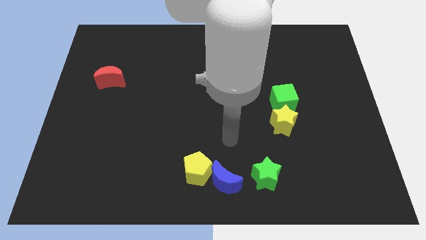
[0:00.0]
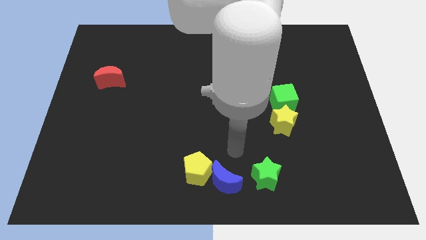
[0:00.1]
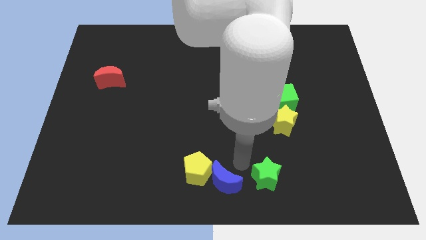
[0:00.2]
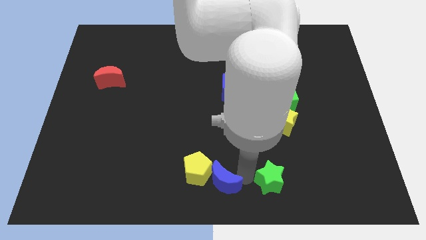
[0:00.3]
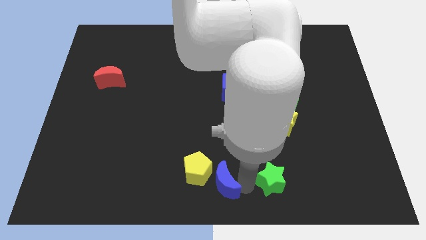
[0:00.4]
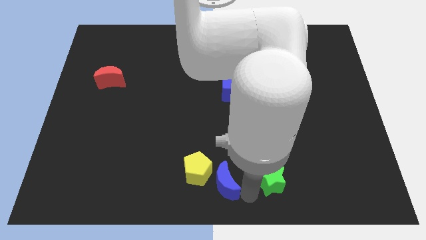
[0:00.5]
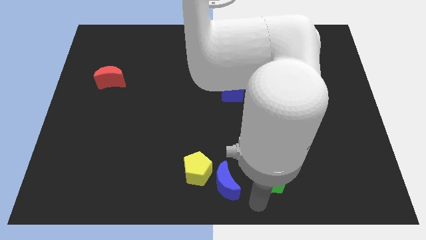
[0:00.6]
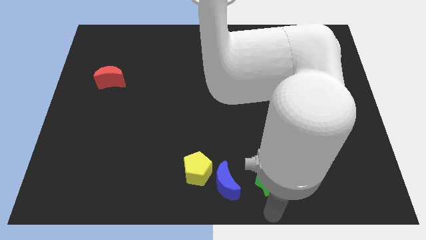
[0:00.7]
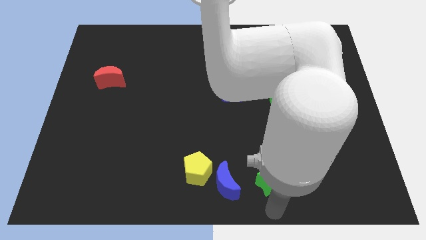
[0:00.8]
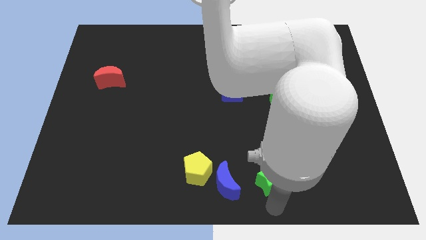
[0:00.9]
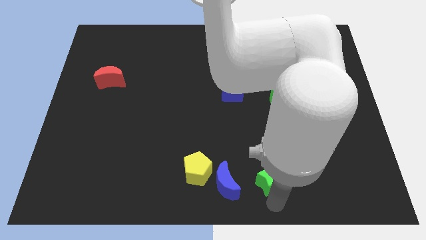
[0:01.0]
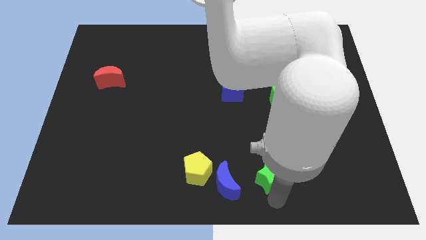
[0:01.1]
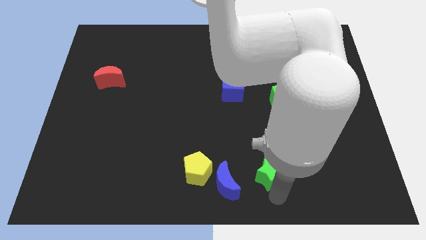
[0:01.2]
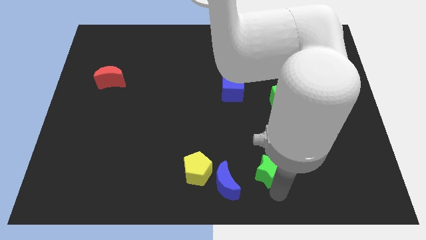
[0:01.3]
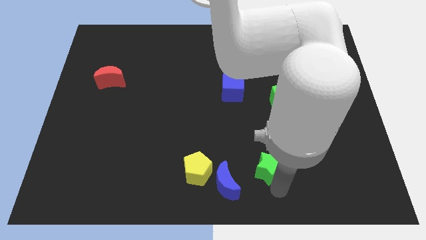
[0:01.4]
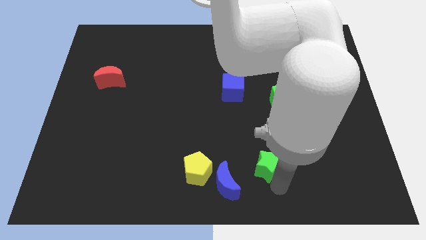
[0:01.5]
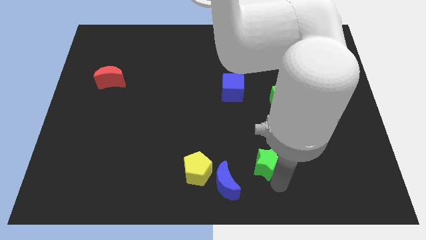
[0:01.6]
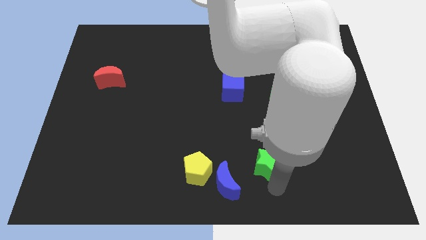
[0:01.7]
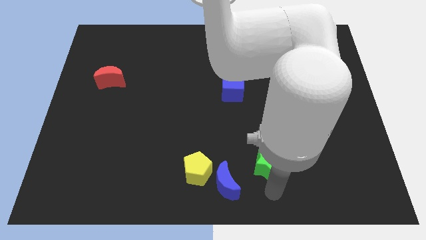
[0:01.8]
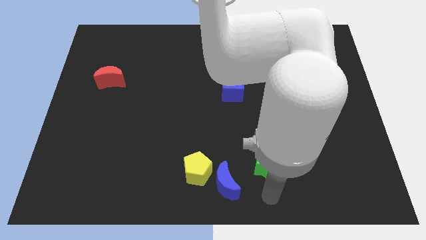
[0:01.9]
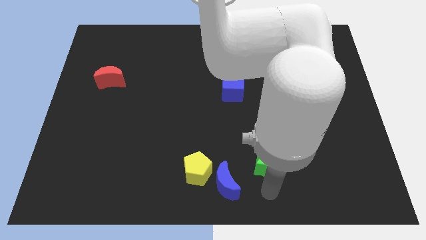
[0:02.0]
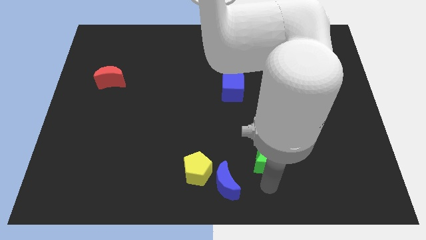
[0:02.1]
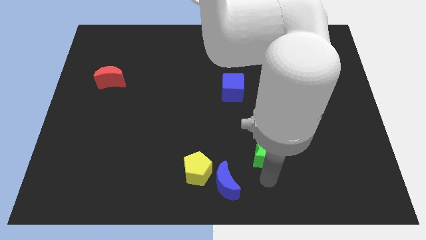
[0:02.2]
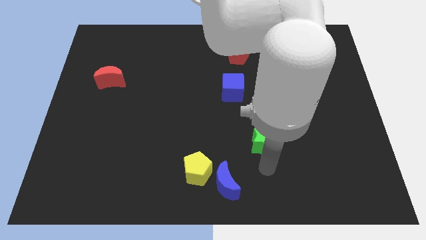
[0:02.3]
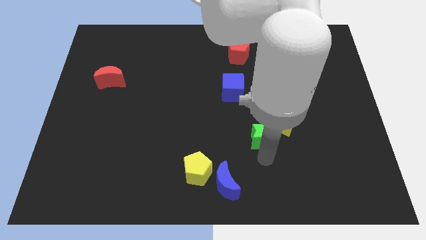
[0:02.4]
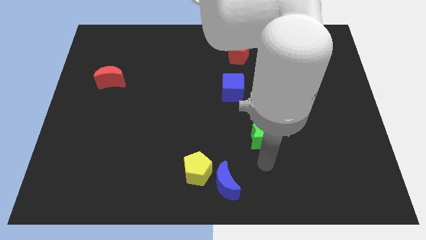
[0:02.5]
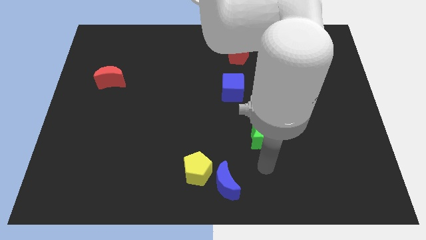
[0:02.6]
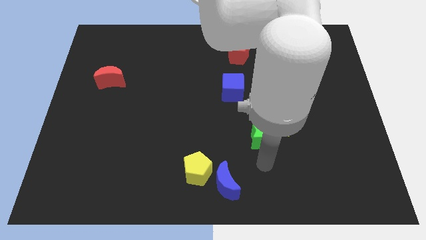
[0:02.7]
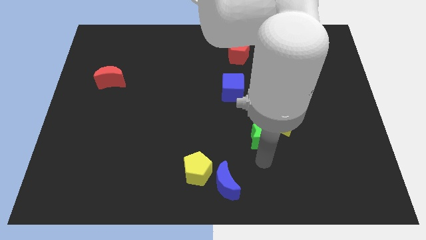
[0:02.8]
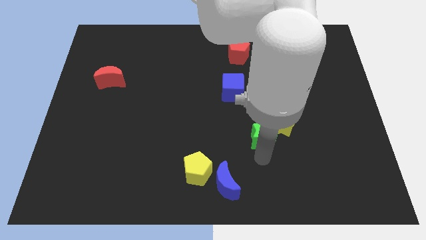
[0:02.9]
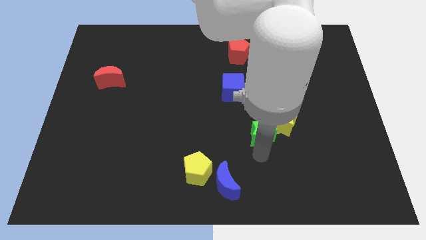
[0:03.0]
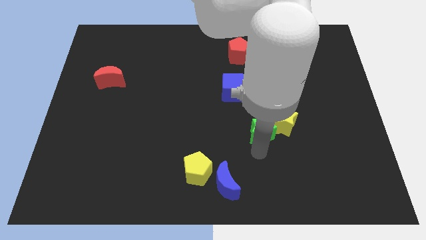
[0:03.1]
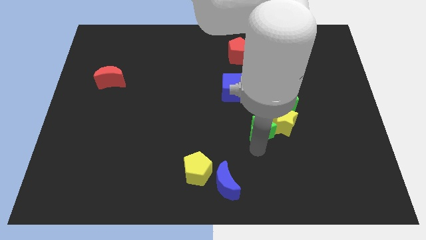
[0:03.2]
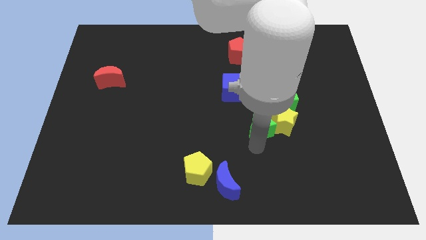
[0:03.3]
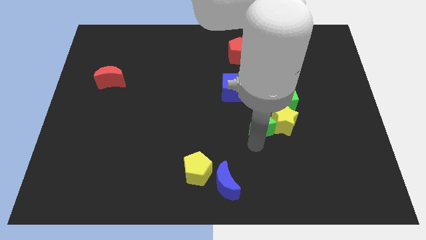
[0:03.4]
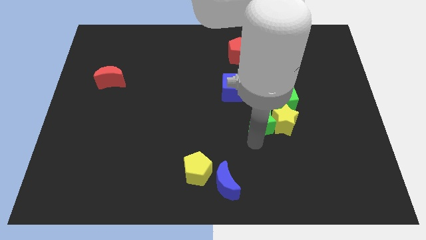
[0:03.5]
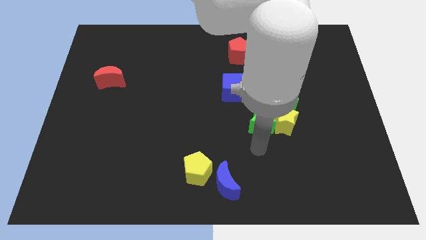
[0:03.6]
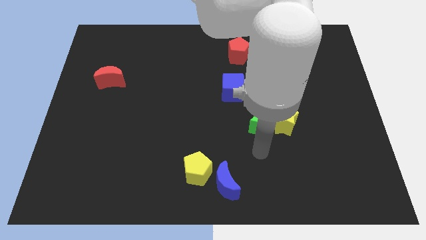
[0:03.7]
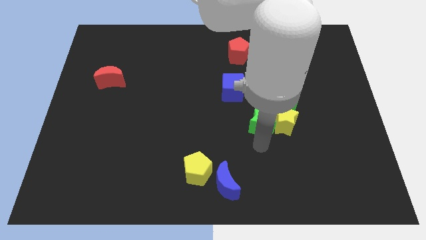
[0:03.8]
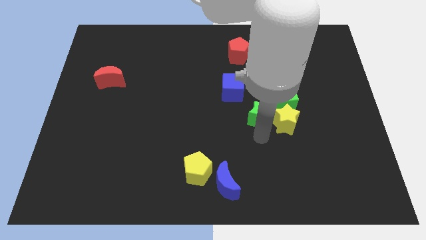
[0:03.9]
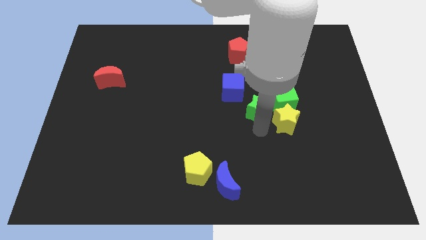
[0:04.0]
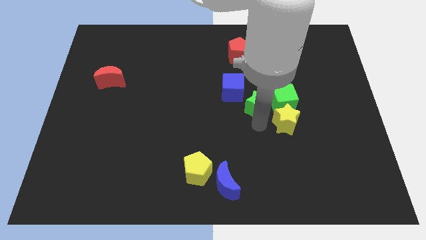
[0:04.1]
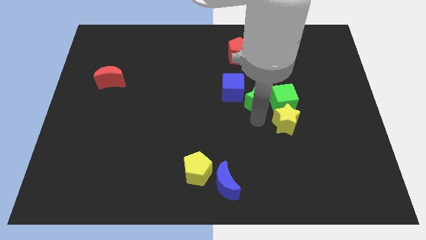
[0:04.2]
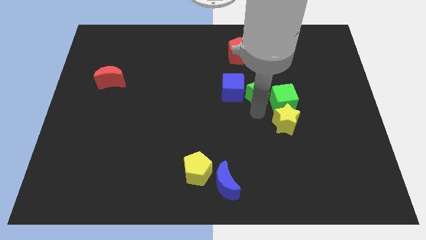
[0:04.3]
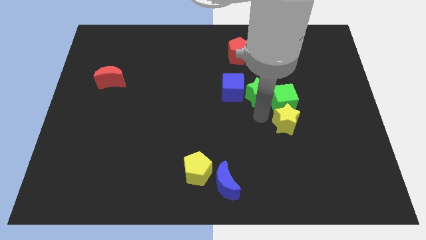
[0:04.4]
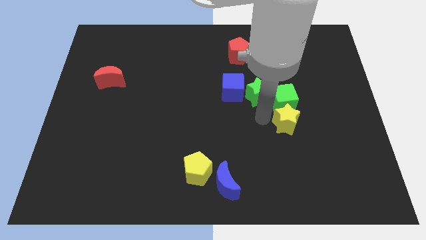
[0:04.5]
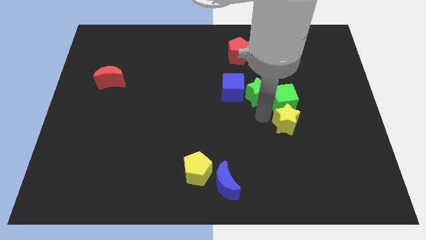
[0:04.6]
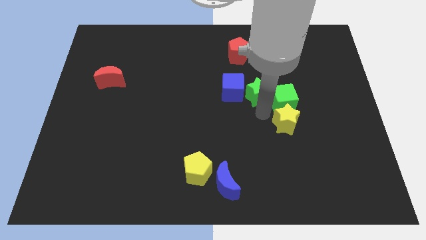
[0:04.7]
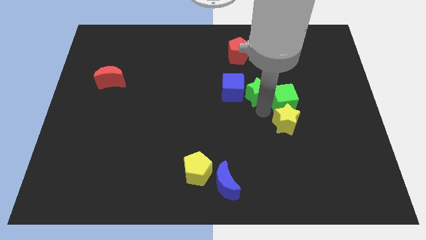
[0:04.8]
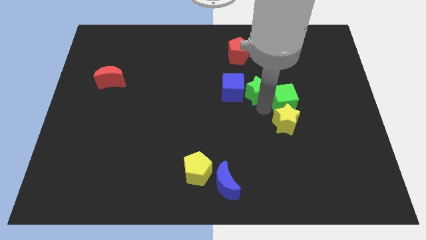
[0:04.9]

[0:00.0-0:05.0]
move the green star diagonally up and to the right of the blue cube

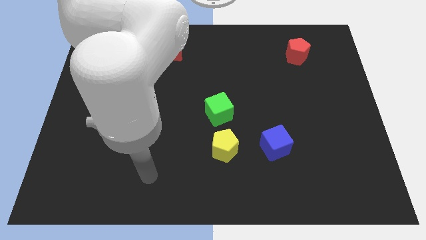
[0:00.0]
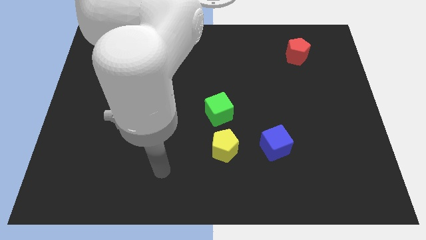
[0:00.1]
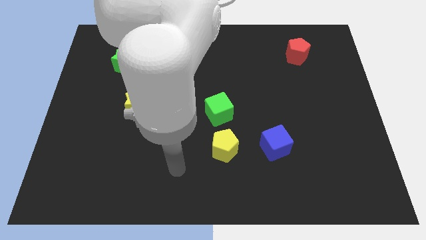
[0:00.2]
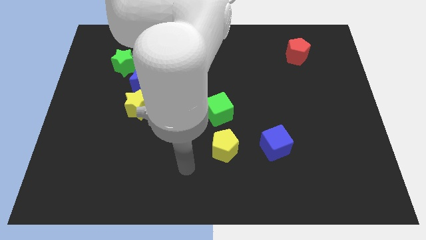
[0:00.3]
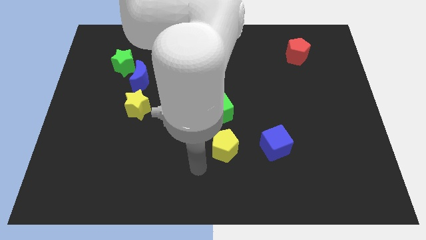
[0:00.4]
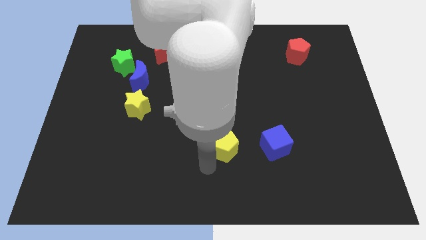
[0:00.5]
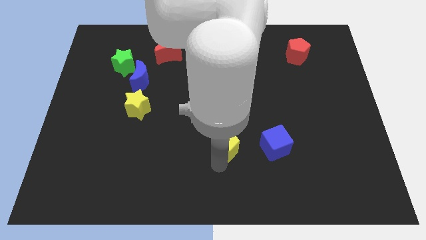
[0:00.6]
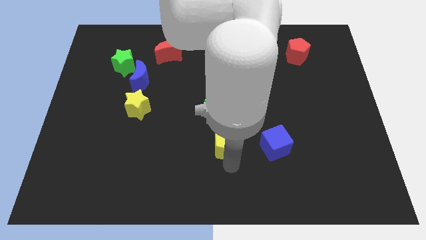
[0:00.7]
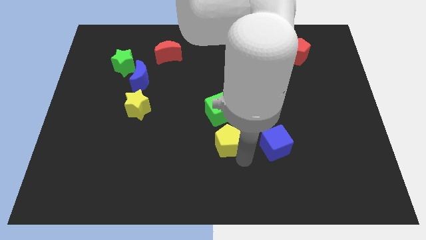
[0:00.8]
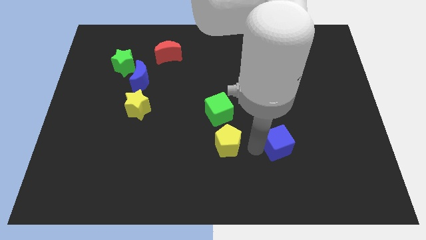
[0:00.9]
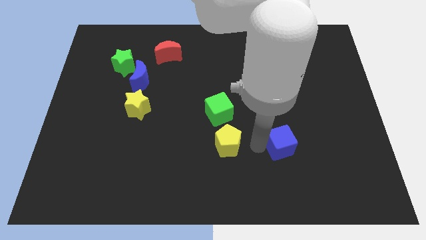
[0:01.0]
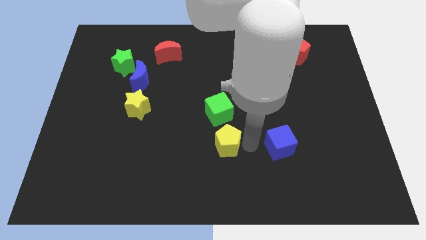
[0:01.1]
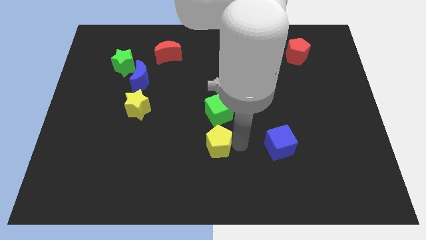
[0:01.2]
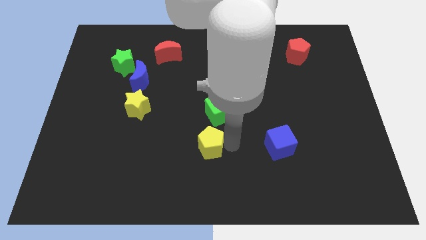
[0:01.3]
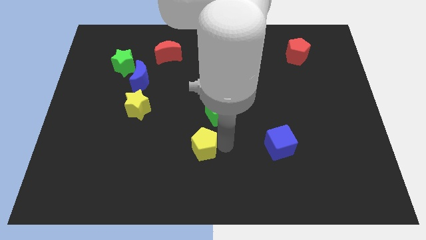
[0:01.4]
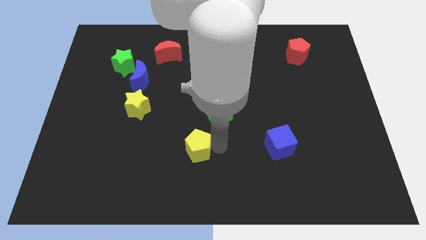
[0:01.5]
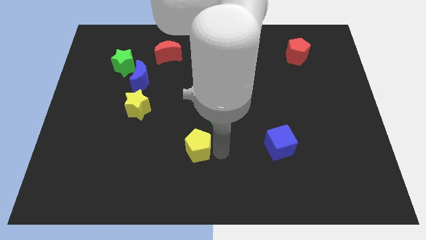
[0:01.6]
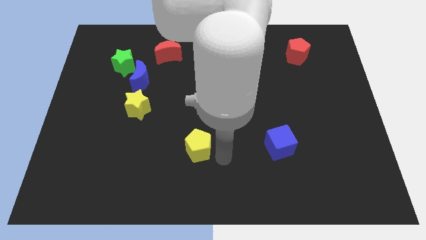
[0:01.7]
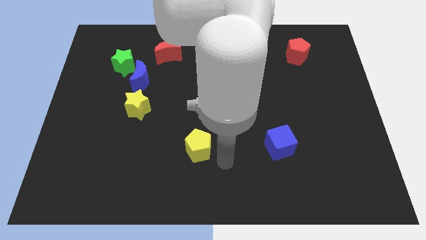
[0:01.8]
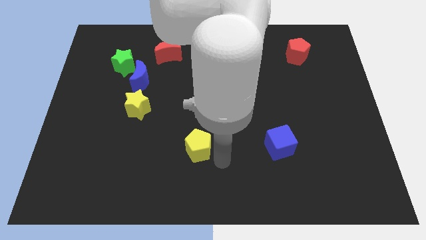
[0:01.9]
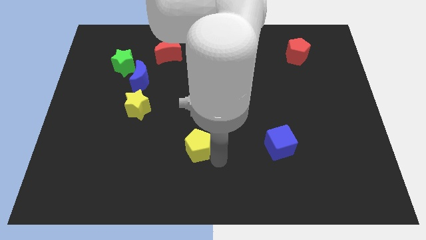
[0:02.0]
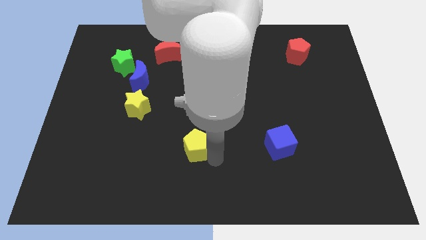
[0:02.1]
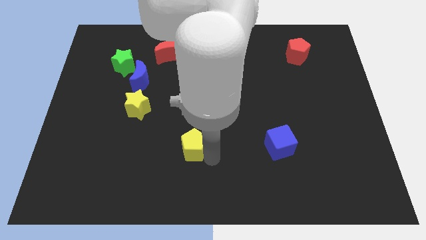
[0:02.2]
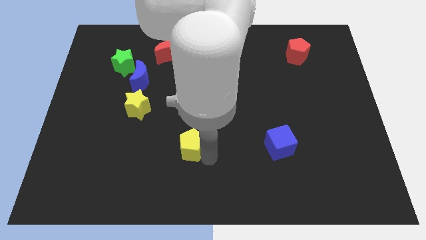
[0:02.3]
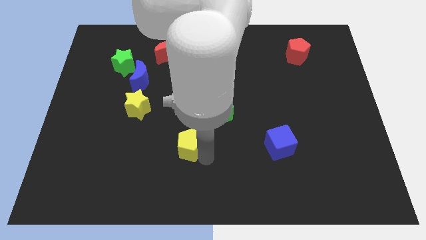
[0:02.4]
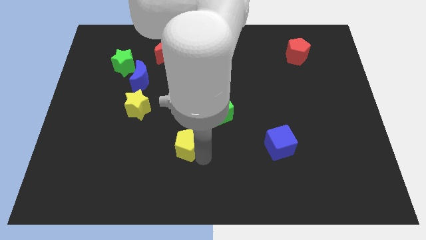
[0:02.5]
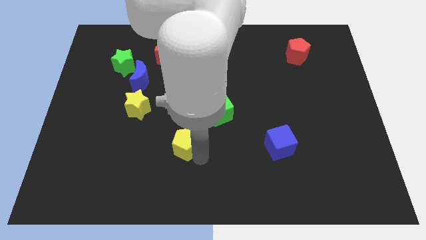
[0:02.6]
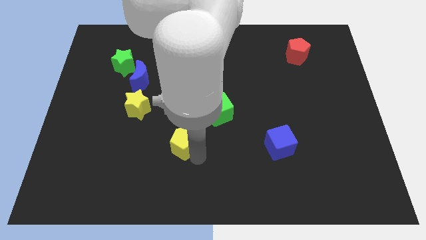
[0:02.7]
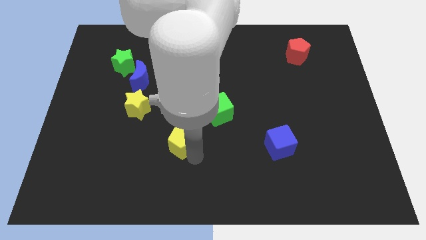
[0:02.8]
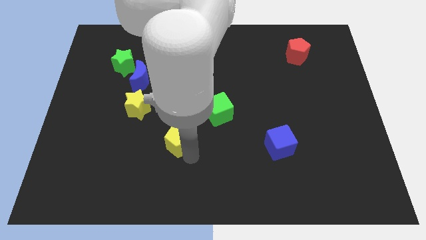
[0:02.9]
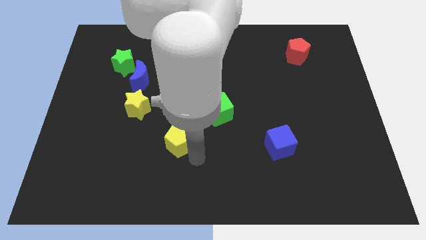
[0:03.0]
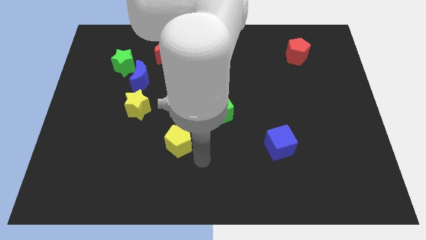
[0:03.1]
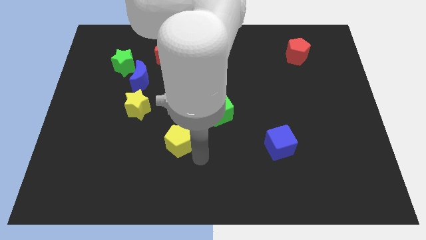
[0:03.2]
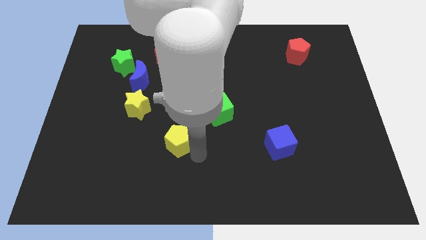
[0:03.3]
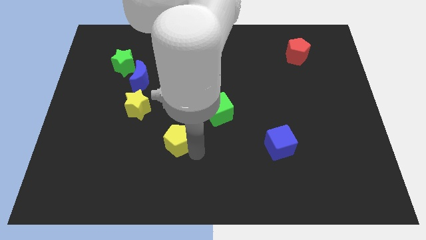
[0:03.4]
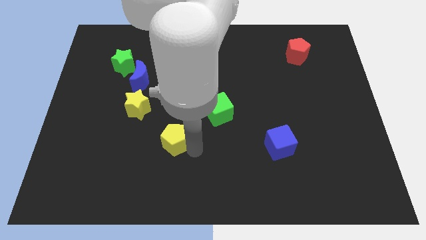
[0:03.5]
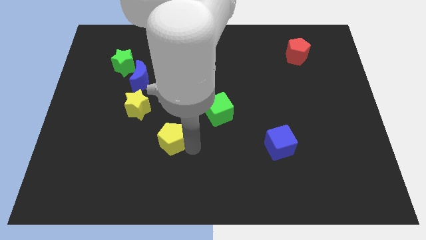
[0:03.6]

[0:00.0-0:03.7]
slide the yellow pentagon diagonally down and to the right of the yellow star
